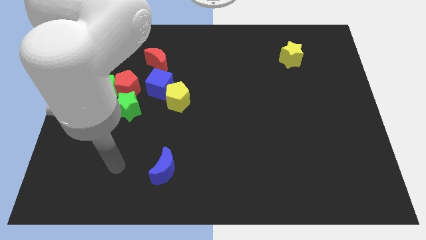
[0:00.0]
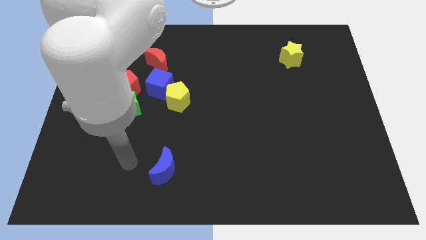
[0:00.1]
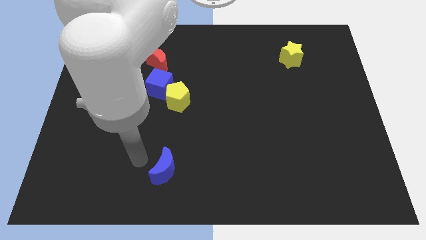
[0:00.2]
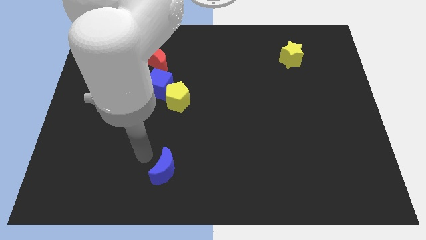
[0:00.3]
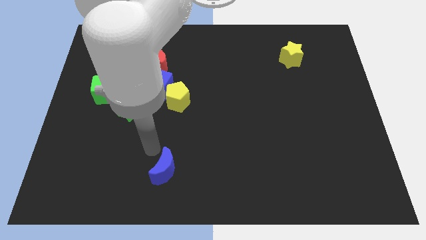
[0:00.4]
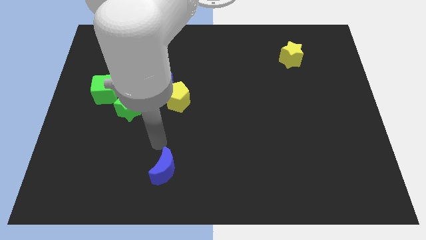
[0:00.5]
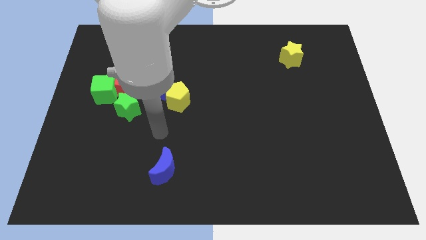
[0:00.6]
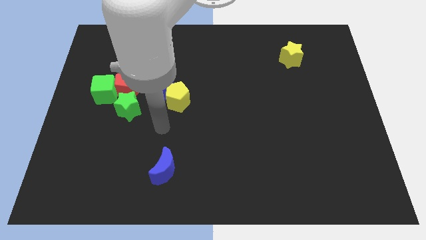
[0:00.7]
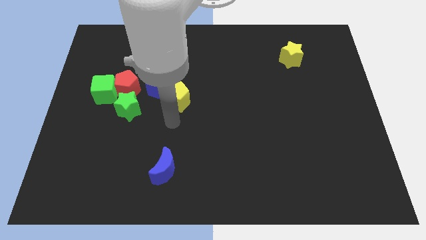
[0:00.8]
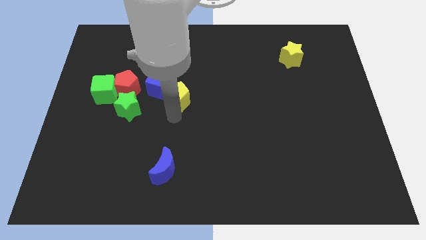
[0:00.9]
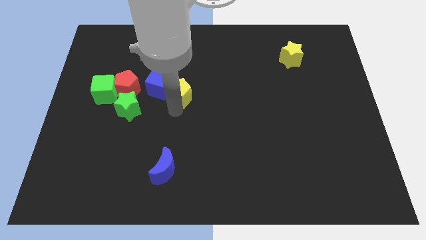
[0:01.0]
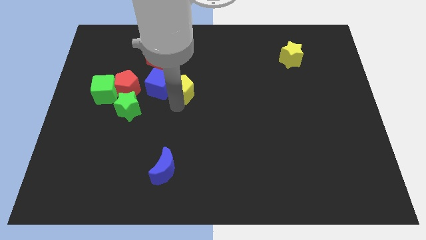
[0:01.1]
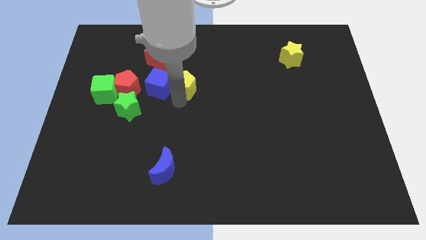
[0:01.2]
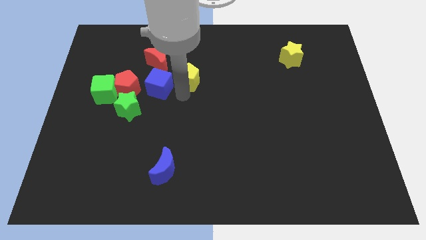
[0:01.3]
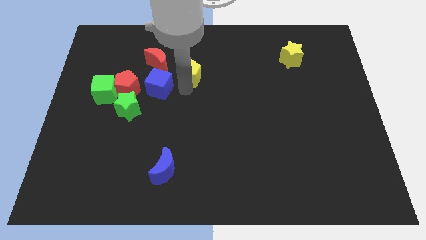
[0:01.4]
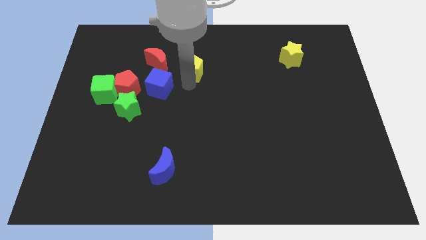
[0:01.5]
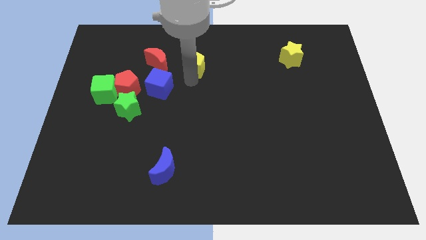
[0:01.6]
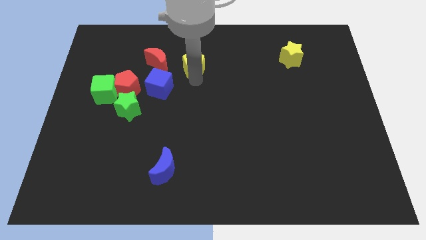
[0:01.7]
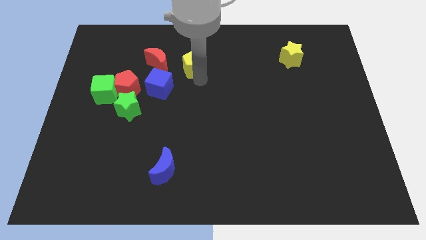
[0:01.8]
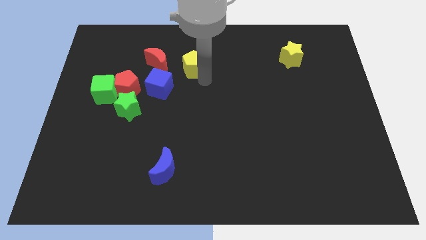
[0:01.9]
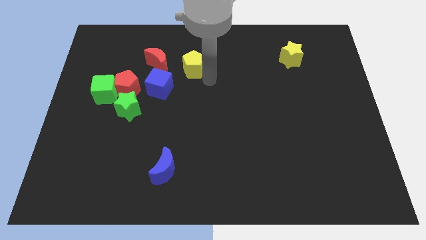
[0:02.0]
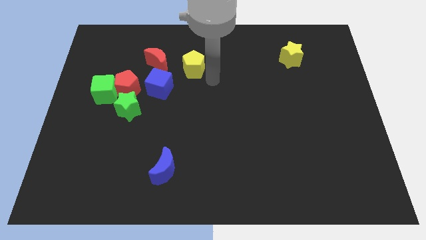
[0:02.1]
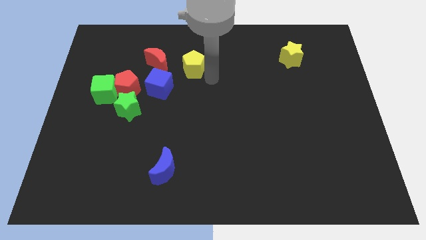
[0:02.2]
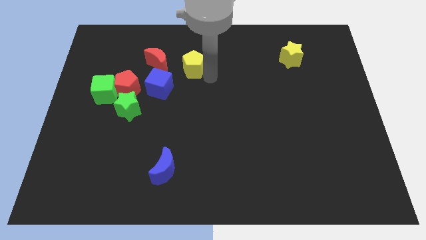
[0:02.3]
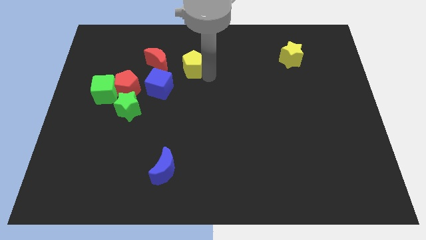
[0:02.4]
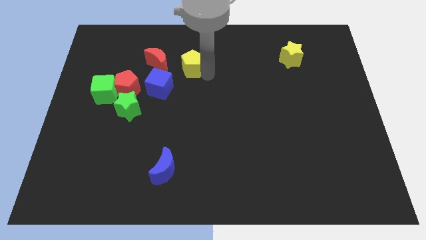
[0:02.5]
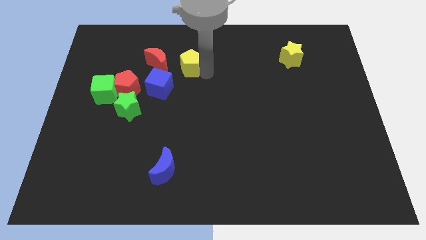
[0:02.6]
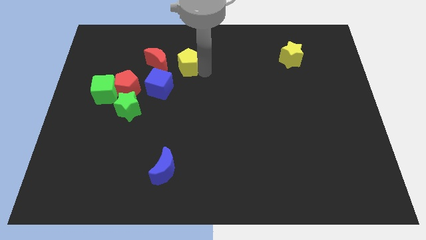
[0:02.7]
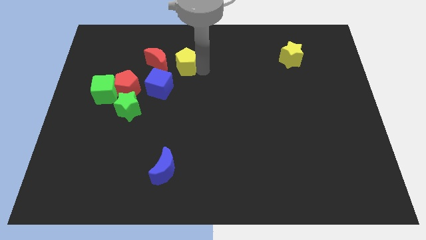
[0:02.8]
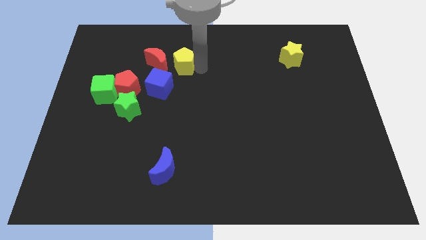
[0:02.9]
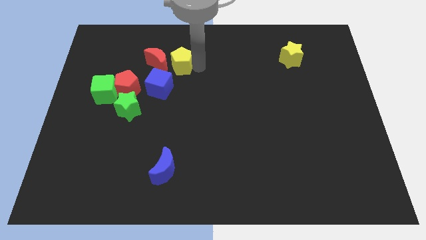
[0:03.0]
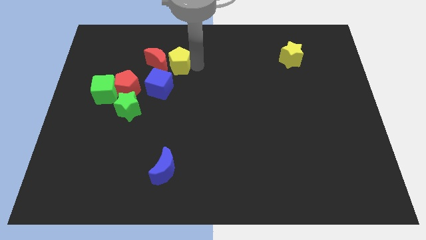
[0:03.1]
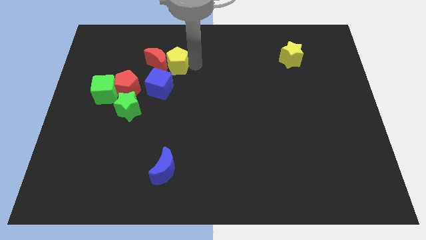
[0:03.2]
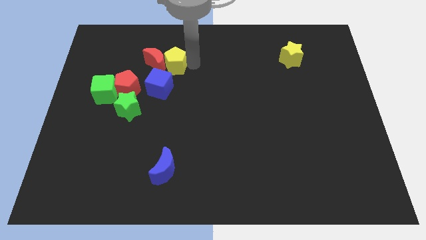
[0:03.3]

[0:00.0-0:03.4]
slide the yellow pentagon upwards and then left a bit

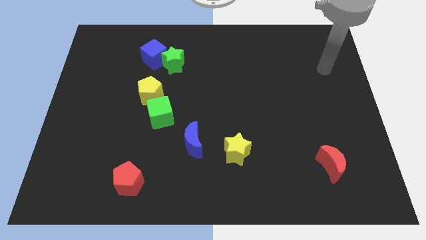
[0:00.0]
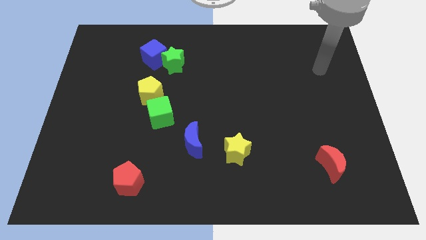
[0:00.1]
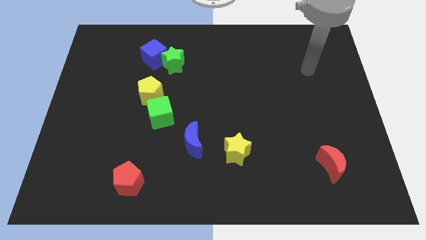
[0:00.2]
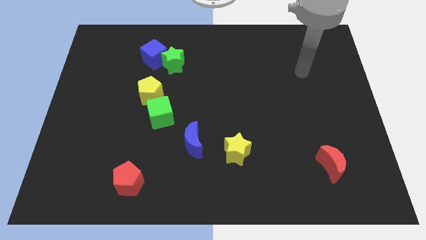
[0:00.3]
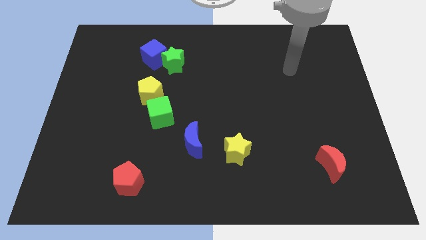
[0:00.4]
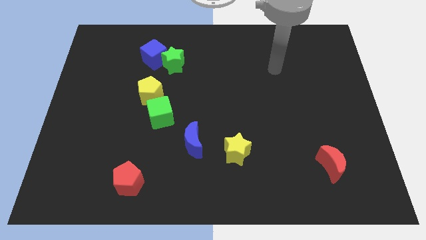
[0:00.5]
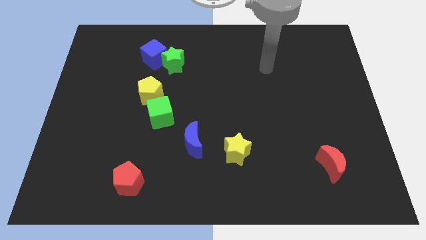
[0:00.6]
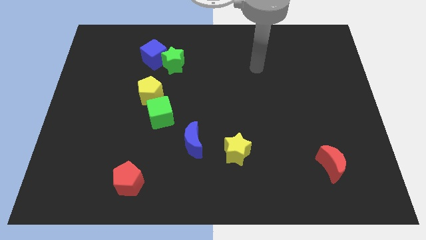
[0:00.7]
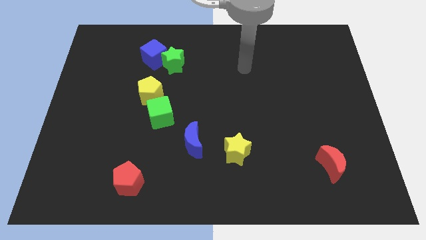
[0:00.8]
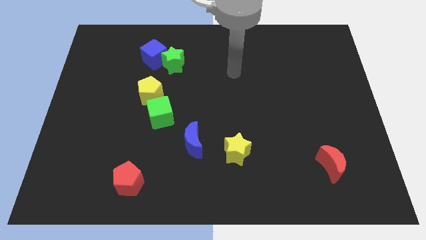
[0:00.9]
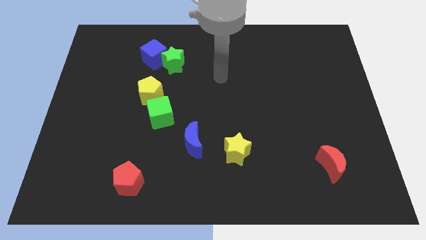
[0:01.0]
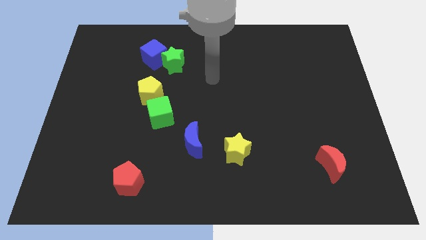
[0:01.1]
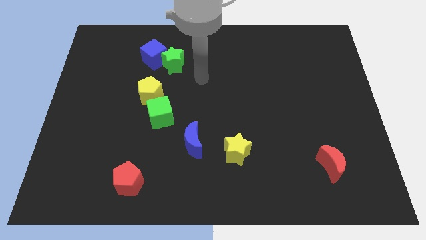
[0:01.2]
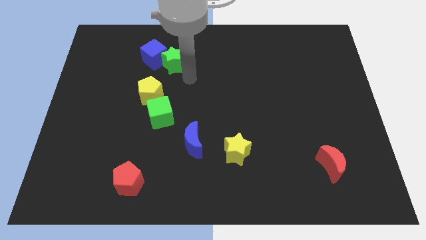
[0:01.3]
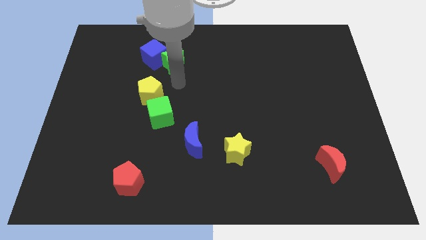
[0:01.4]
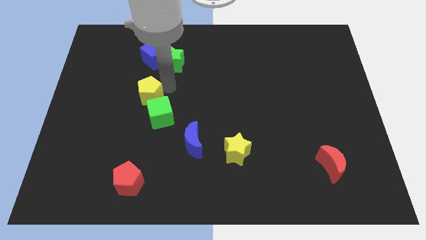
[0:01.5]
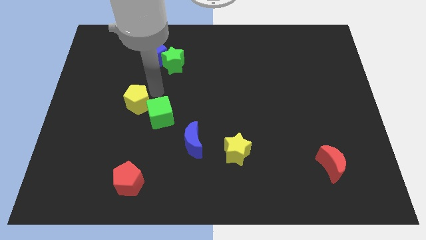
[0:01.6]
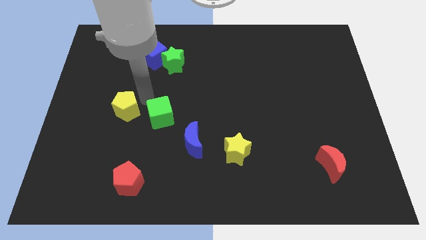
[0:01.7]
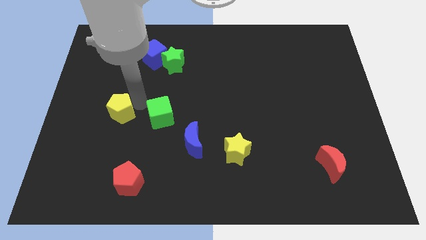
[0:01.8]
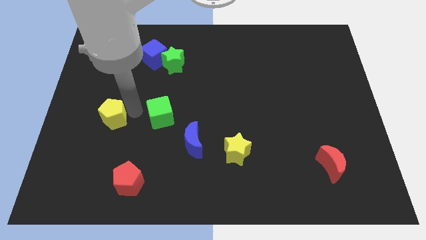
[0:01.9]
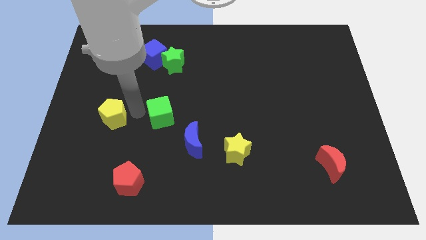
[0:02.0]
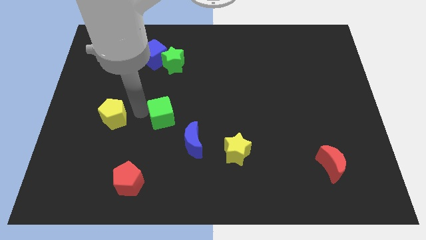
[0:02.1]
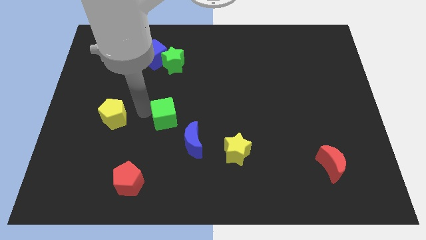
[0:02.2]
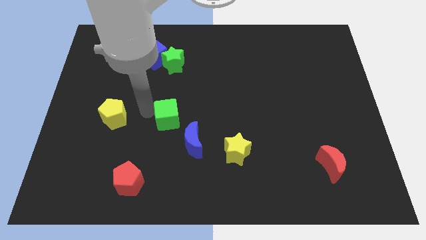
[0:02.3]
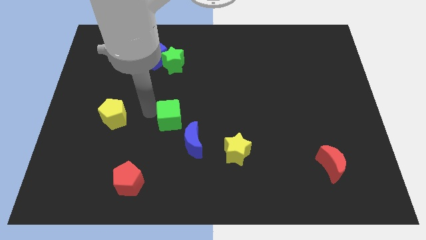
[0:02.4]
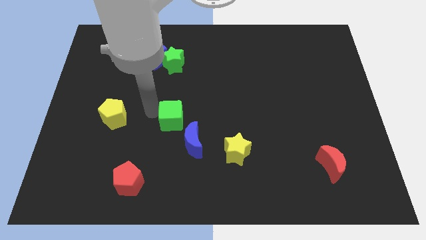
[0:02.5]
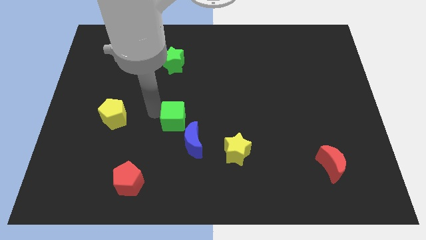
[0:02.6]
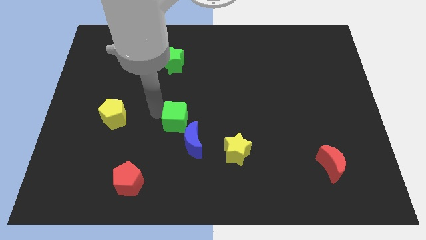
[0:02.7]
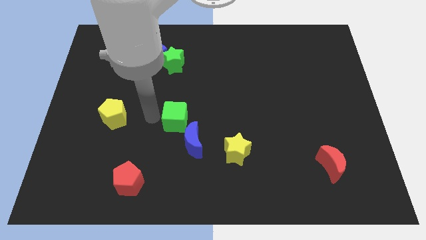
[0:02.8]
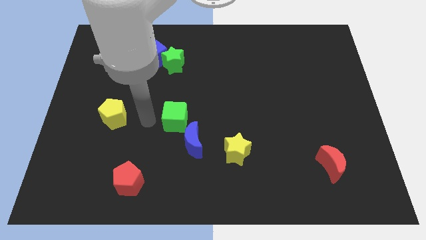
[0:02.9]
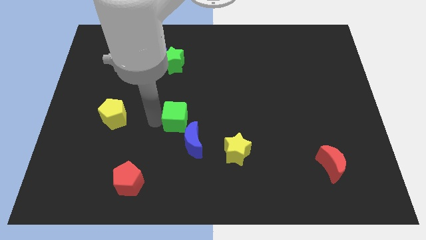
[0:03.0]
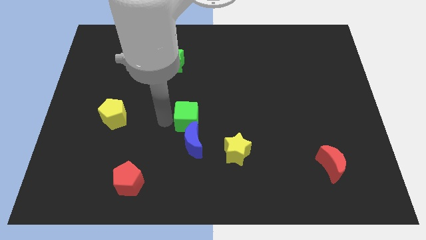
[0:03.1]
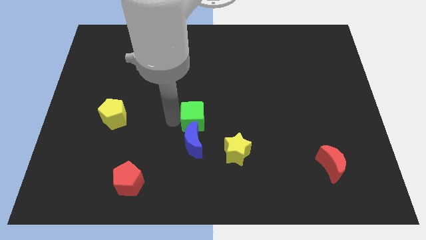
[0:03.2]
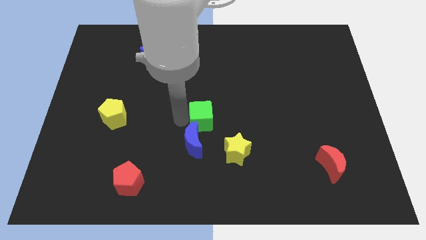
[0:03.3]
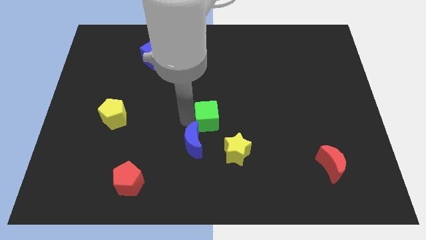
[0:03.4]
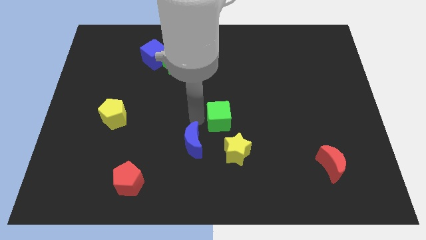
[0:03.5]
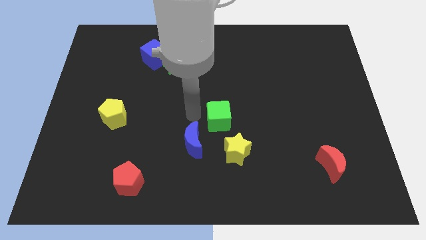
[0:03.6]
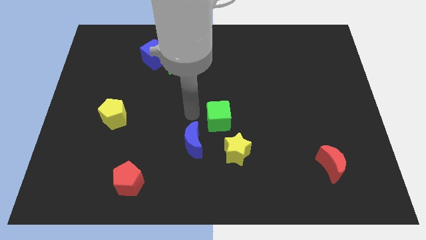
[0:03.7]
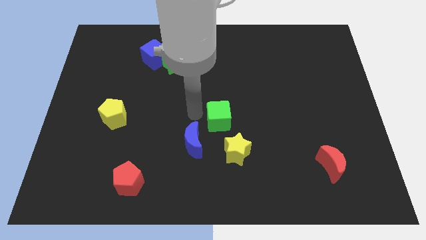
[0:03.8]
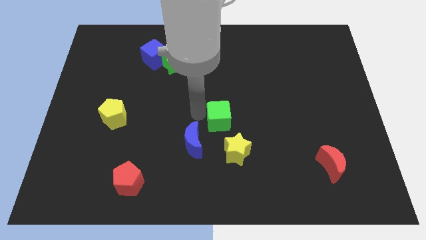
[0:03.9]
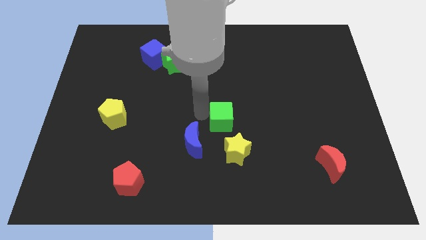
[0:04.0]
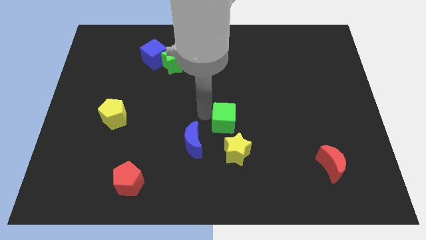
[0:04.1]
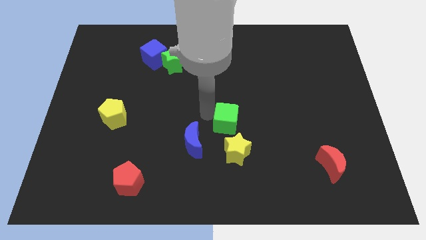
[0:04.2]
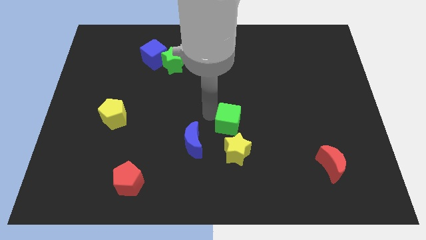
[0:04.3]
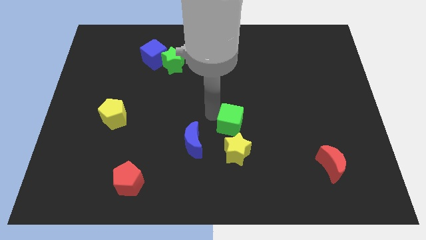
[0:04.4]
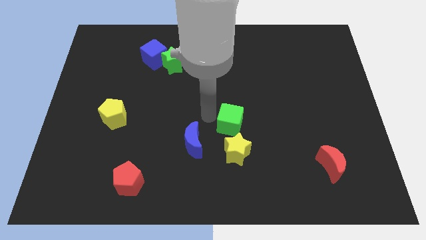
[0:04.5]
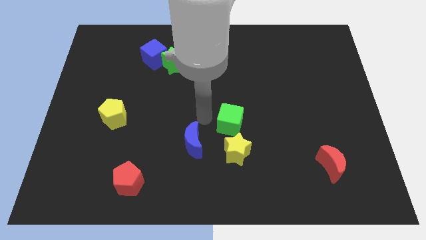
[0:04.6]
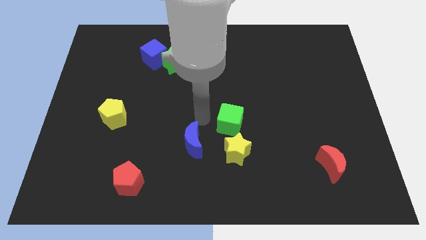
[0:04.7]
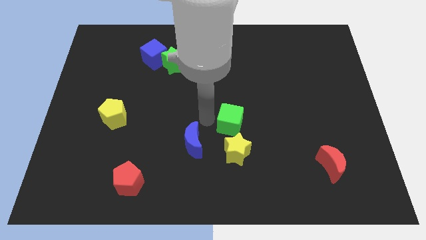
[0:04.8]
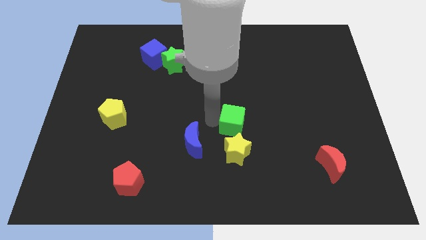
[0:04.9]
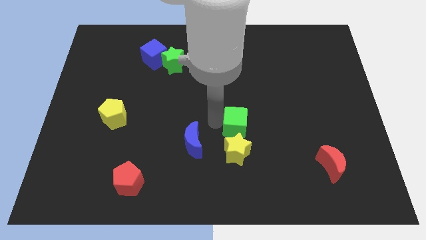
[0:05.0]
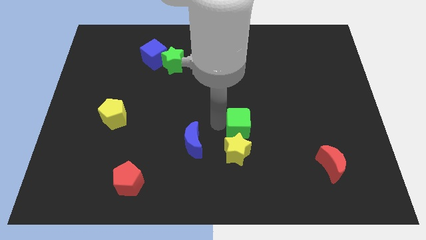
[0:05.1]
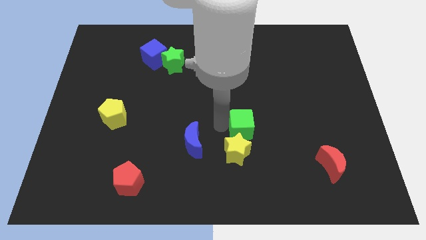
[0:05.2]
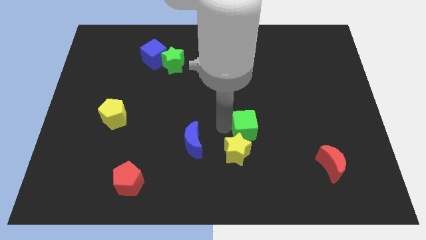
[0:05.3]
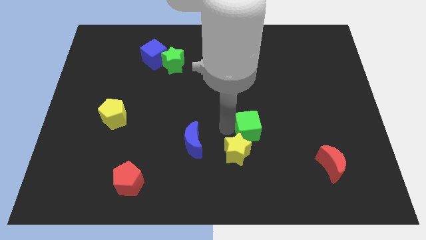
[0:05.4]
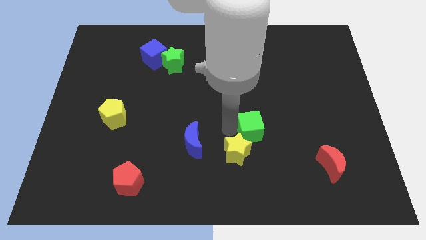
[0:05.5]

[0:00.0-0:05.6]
push the green cube to the right
